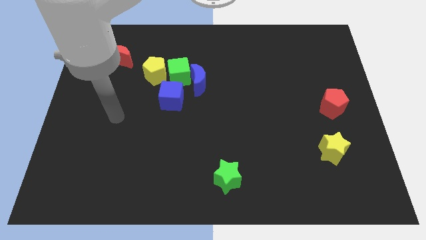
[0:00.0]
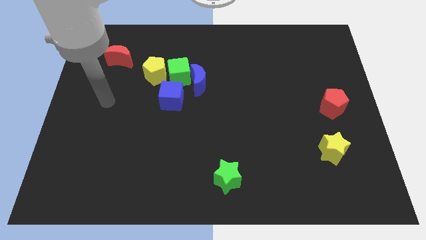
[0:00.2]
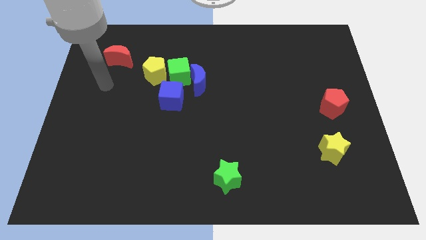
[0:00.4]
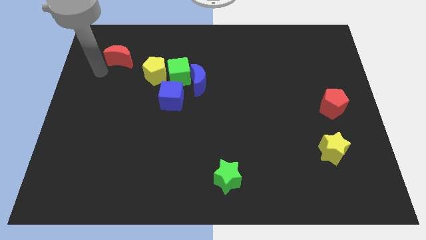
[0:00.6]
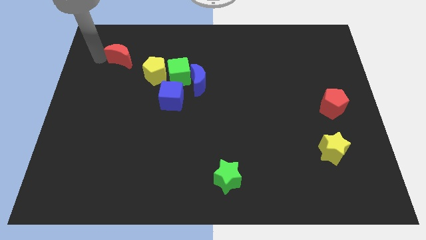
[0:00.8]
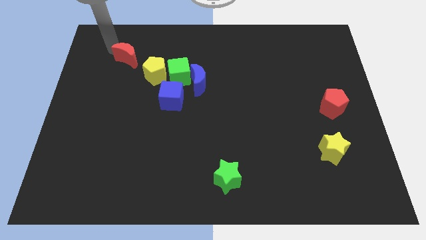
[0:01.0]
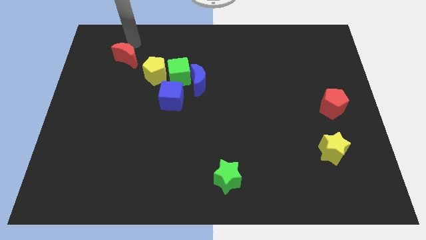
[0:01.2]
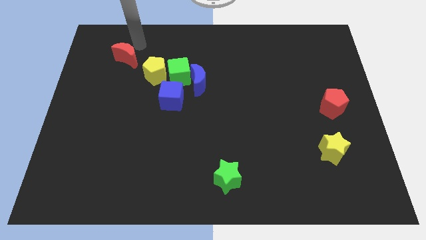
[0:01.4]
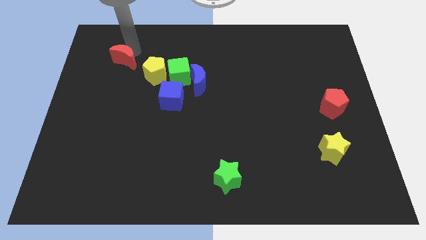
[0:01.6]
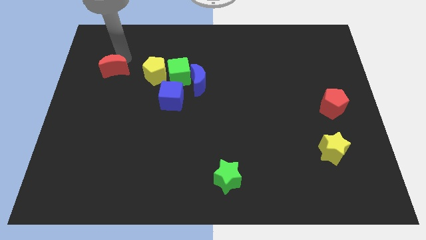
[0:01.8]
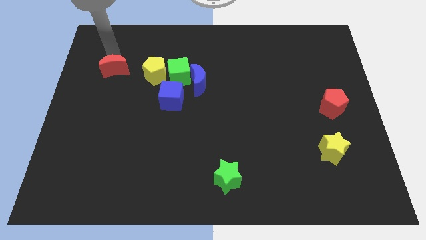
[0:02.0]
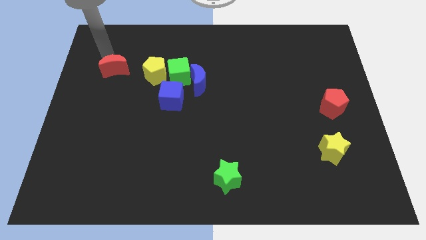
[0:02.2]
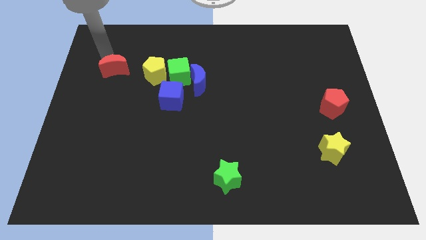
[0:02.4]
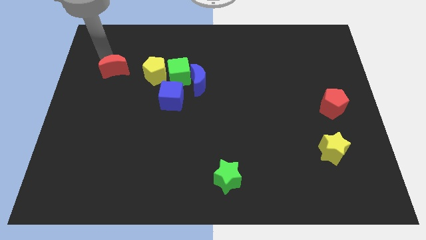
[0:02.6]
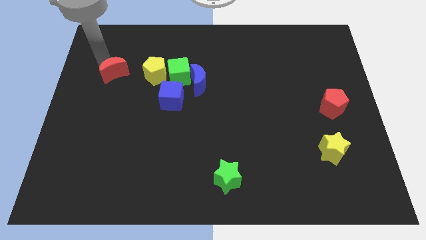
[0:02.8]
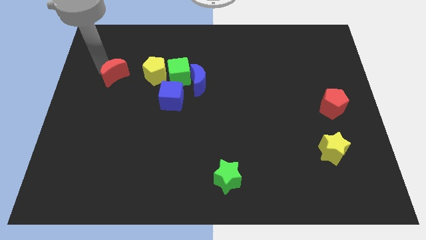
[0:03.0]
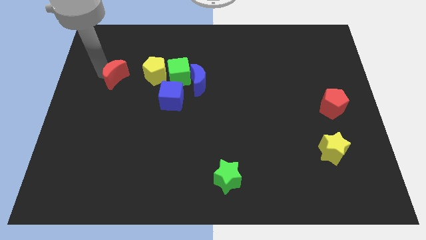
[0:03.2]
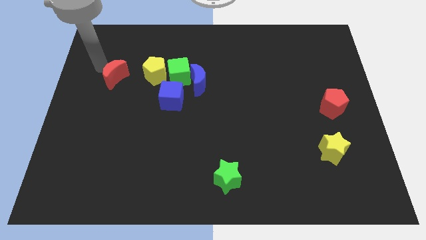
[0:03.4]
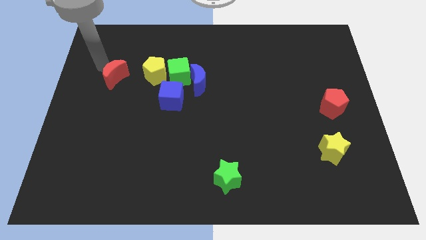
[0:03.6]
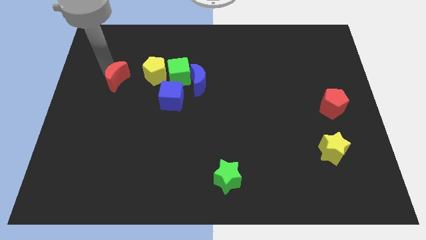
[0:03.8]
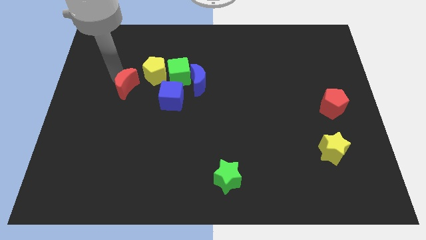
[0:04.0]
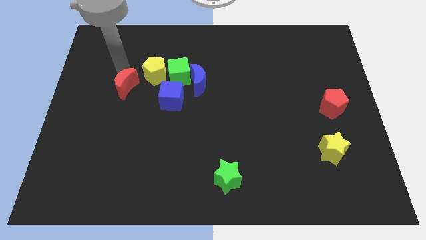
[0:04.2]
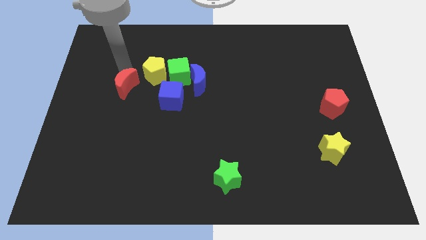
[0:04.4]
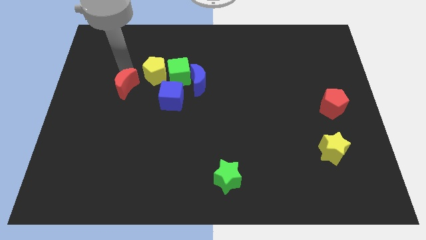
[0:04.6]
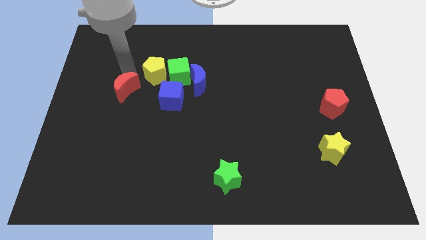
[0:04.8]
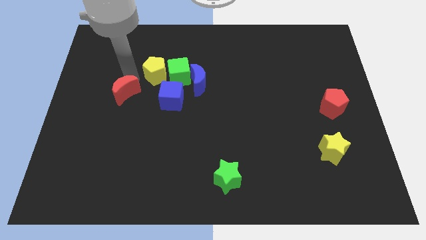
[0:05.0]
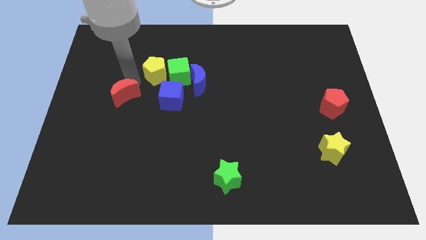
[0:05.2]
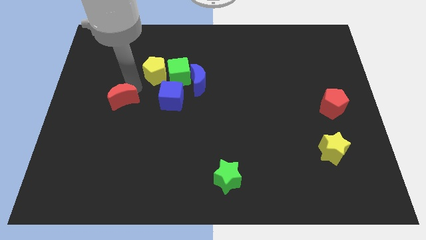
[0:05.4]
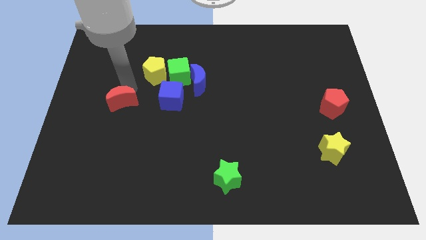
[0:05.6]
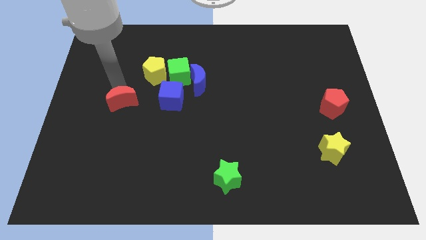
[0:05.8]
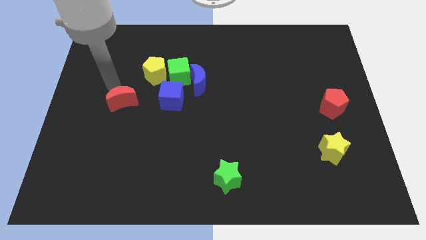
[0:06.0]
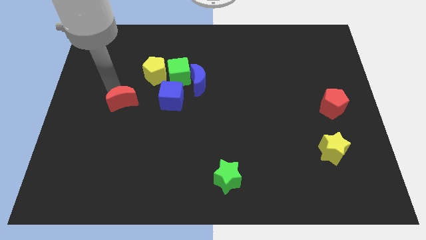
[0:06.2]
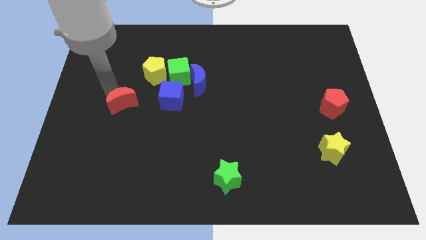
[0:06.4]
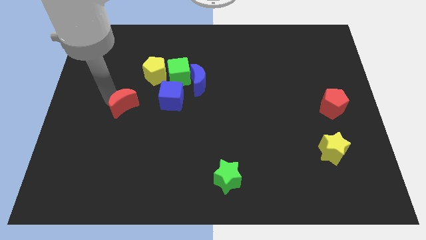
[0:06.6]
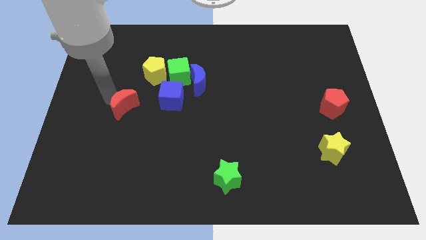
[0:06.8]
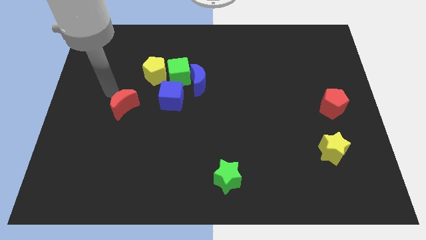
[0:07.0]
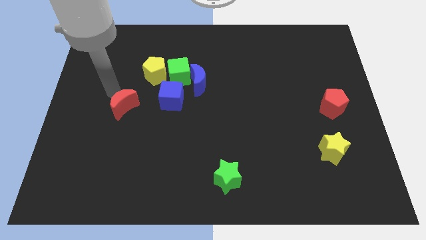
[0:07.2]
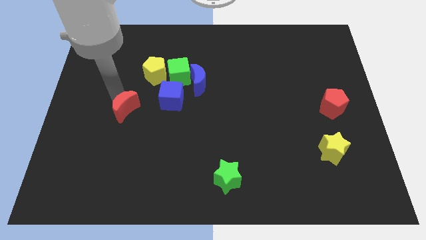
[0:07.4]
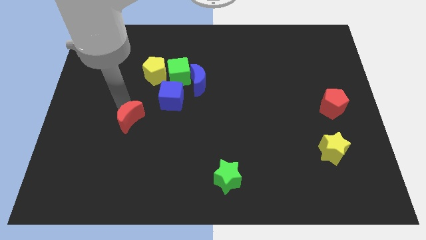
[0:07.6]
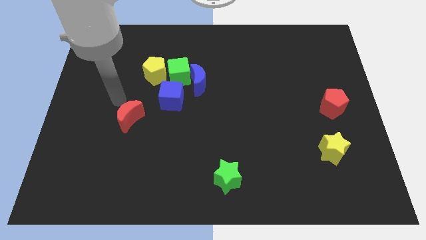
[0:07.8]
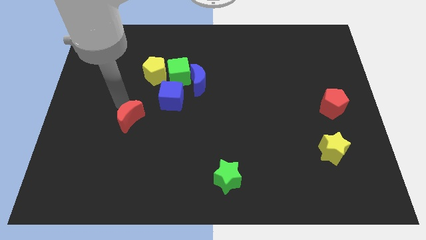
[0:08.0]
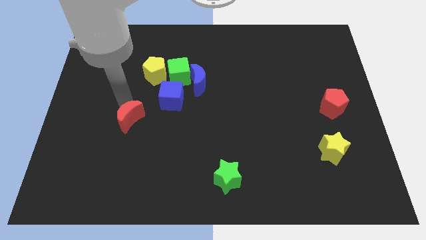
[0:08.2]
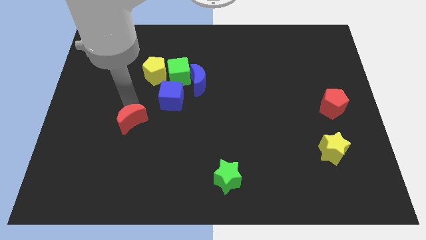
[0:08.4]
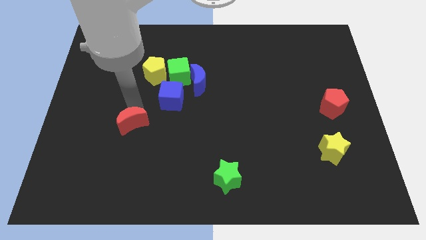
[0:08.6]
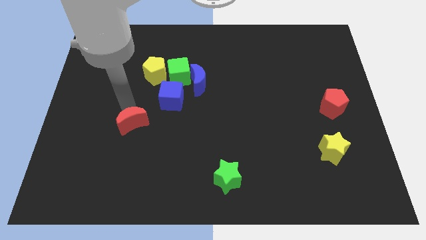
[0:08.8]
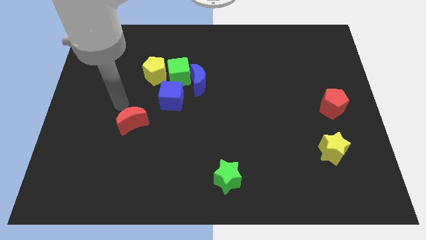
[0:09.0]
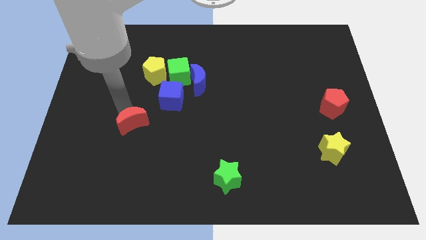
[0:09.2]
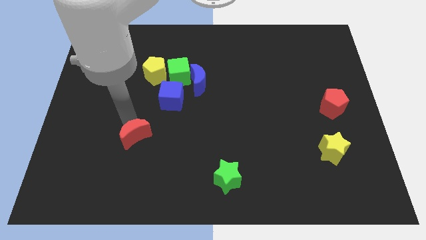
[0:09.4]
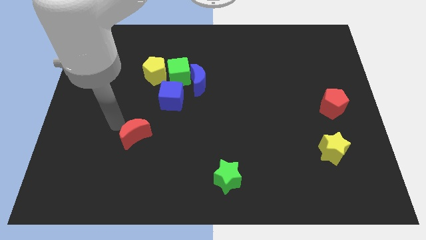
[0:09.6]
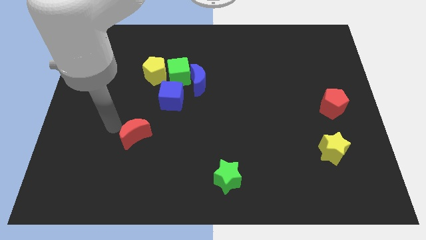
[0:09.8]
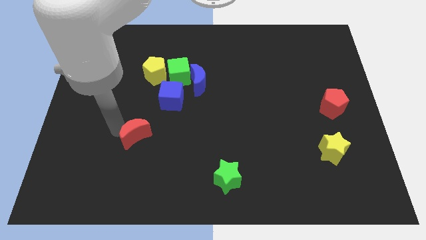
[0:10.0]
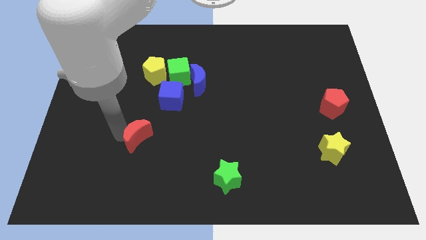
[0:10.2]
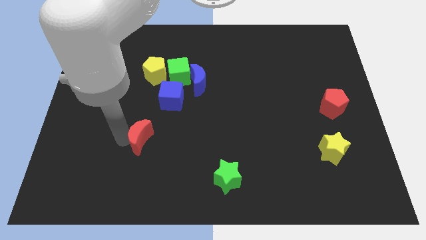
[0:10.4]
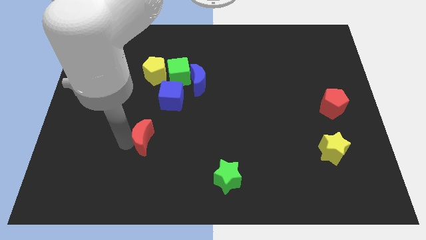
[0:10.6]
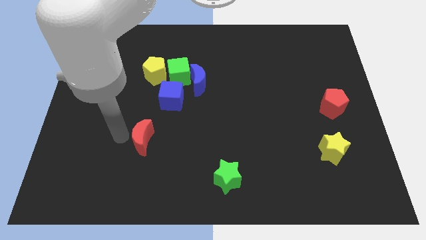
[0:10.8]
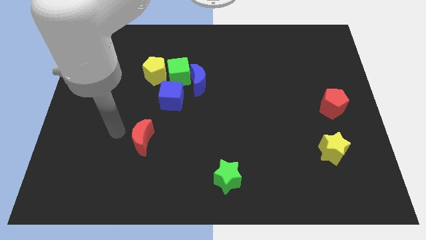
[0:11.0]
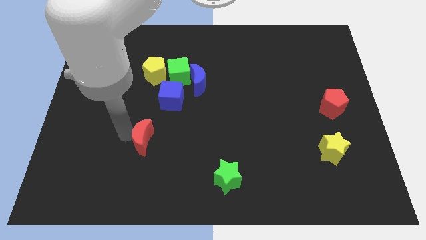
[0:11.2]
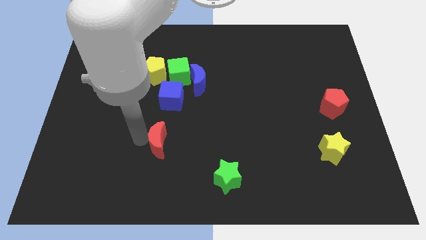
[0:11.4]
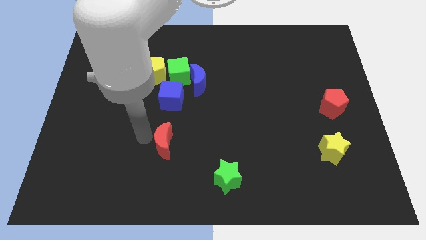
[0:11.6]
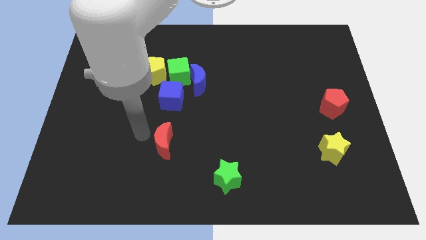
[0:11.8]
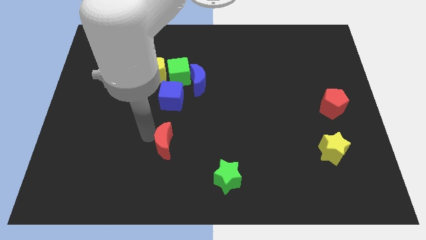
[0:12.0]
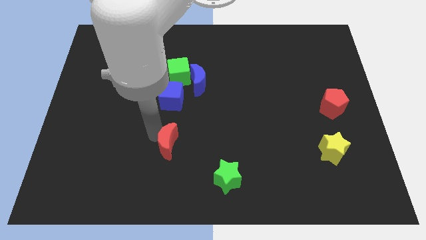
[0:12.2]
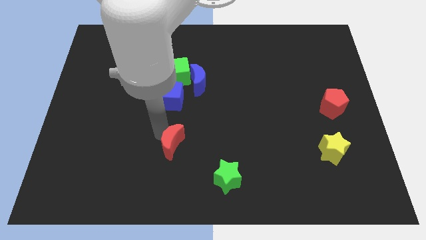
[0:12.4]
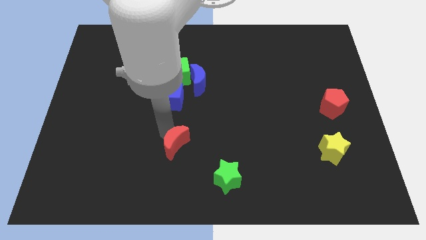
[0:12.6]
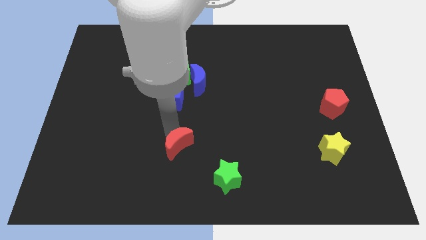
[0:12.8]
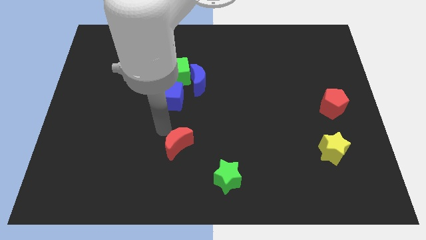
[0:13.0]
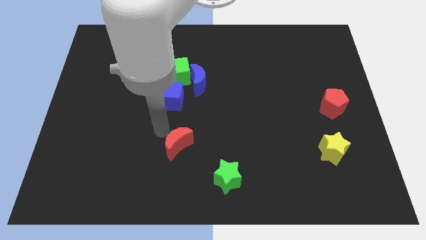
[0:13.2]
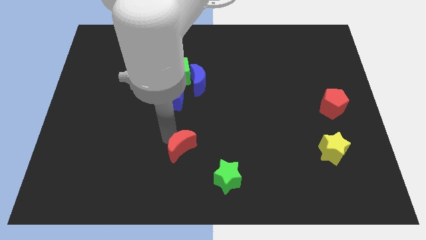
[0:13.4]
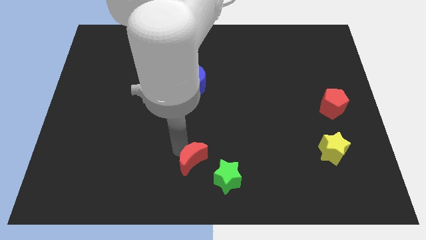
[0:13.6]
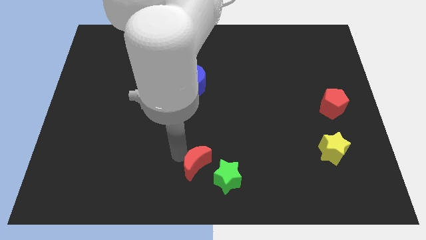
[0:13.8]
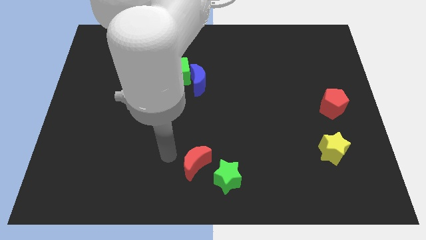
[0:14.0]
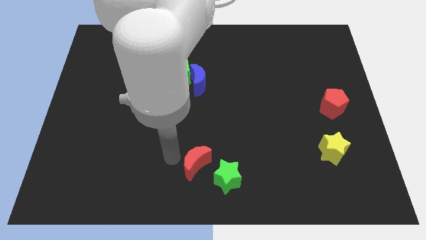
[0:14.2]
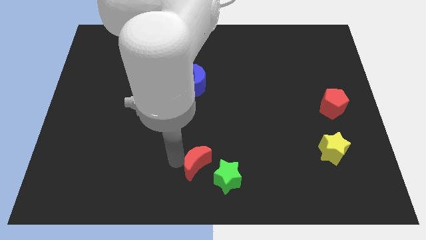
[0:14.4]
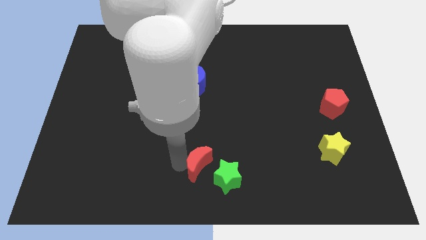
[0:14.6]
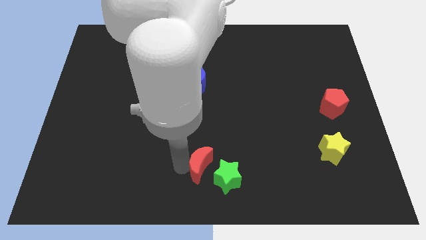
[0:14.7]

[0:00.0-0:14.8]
slide the red moon close to the green star

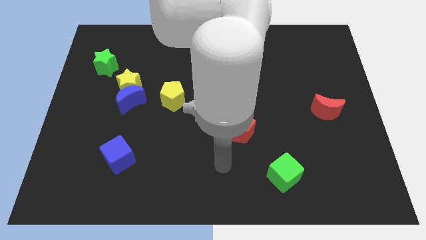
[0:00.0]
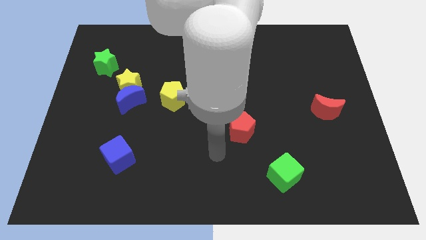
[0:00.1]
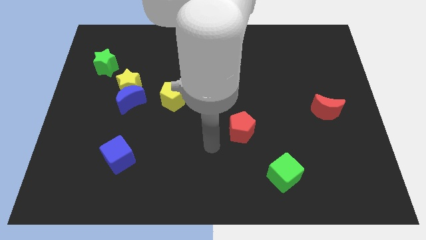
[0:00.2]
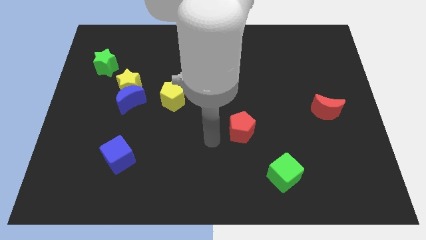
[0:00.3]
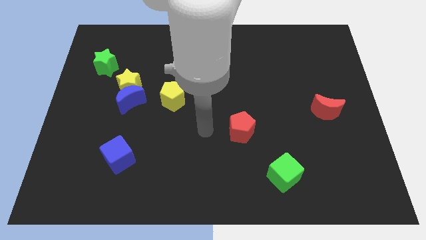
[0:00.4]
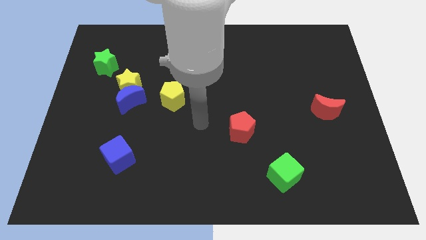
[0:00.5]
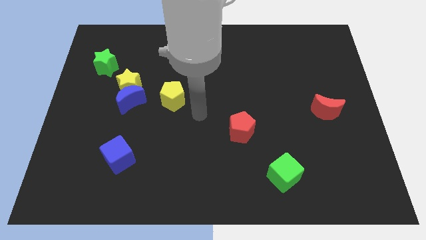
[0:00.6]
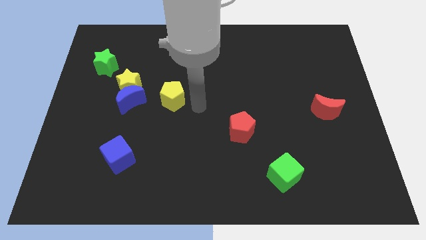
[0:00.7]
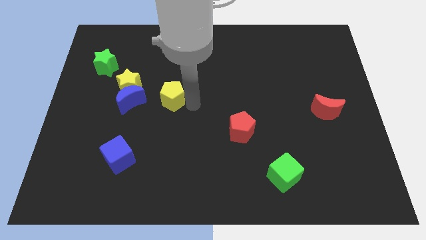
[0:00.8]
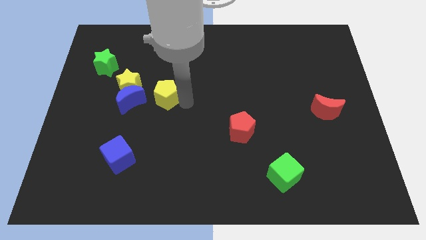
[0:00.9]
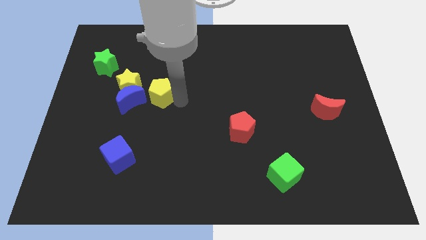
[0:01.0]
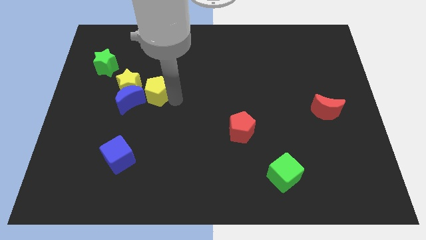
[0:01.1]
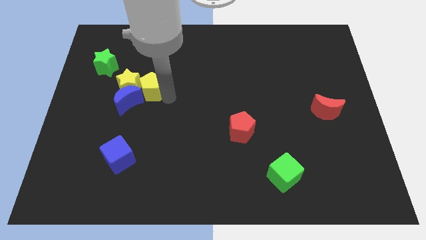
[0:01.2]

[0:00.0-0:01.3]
slide the yellow pentagon next to the yellow star
